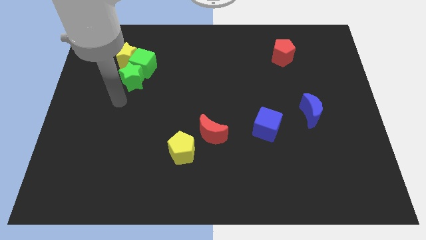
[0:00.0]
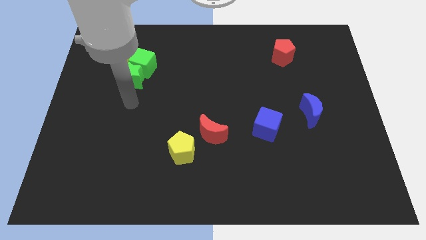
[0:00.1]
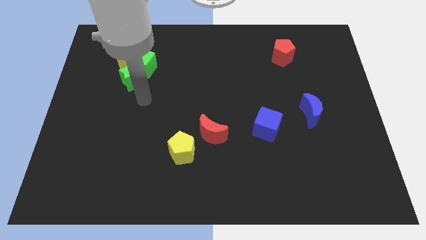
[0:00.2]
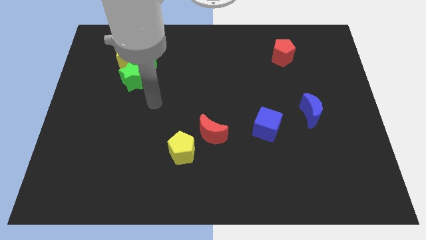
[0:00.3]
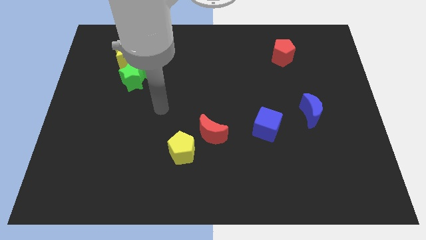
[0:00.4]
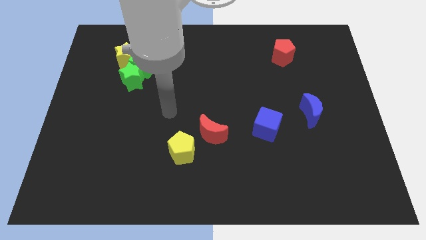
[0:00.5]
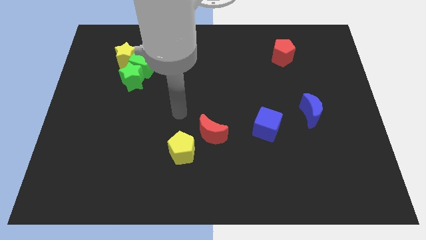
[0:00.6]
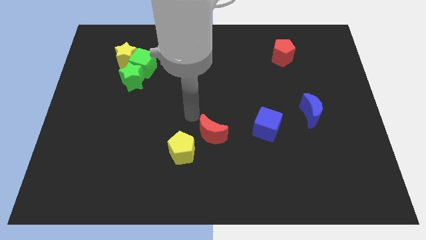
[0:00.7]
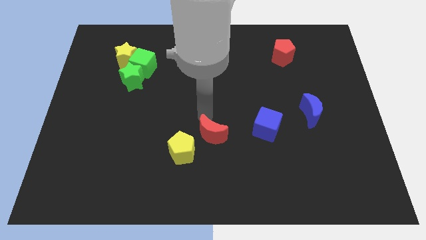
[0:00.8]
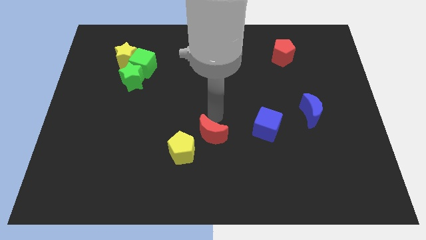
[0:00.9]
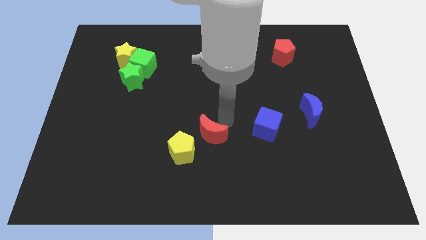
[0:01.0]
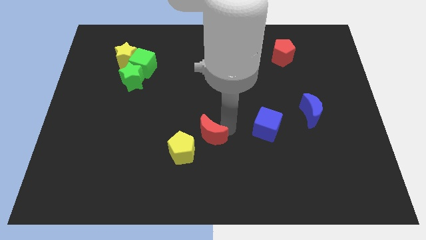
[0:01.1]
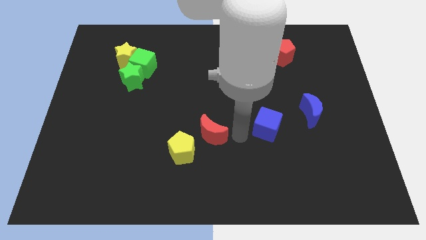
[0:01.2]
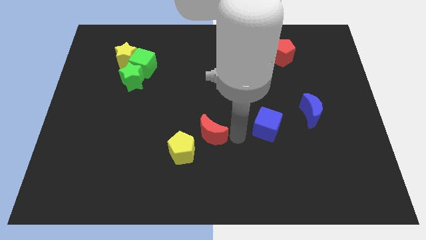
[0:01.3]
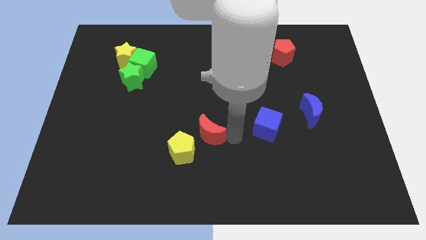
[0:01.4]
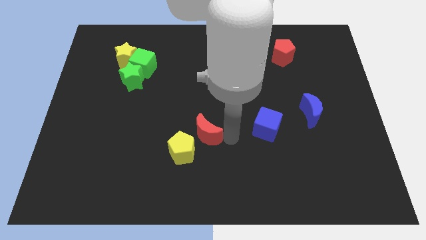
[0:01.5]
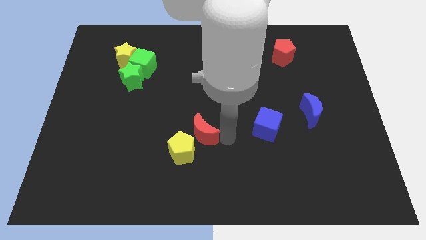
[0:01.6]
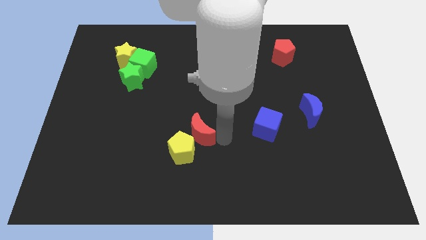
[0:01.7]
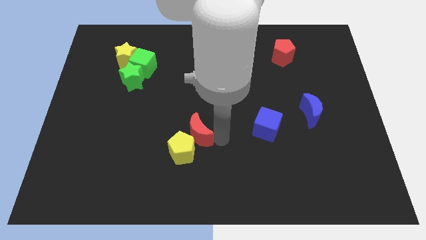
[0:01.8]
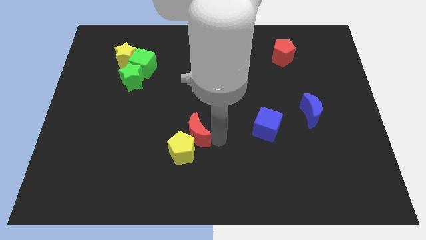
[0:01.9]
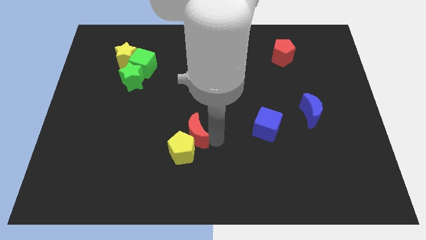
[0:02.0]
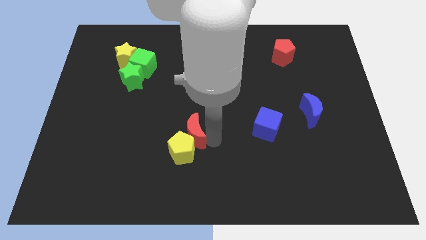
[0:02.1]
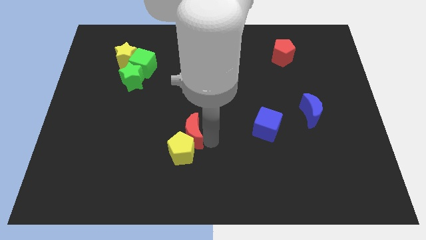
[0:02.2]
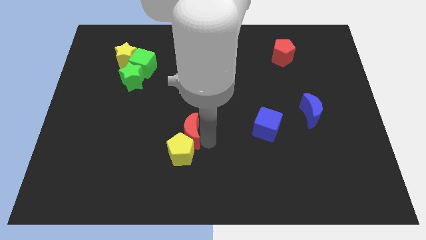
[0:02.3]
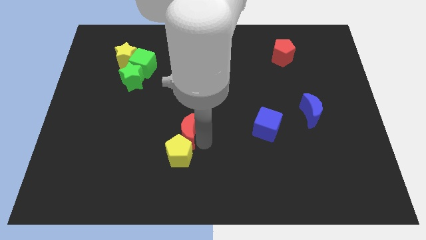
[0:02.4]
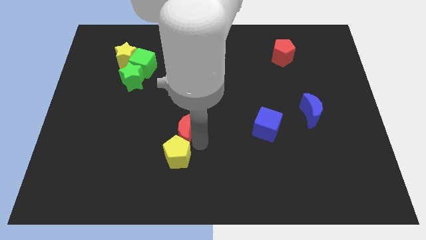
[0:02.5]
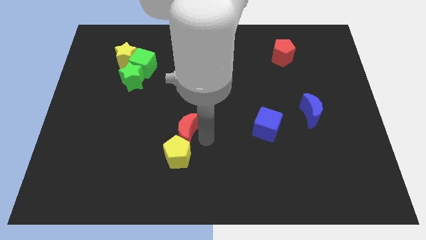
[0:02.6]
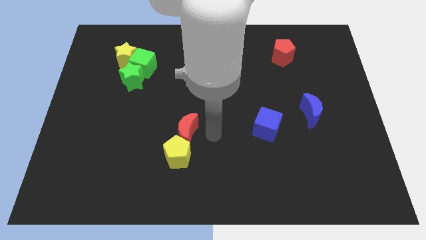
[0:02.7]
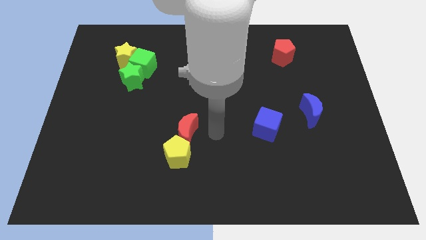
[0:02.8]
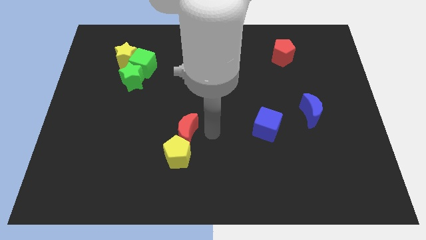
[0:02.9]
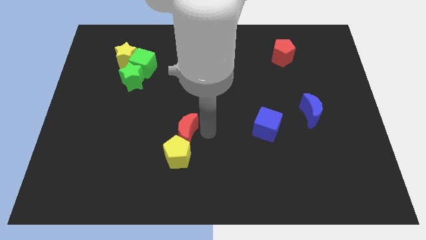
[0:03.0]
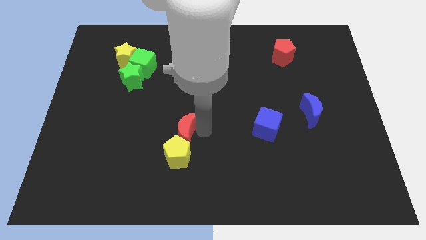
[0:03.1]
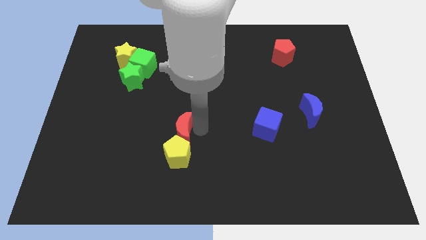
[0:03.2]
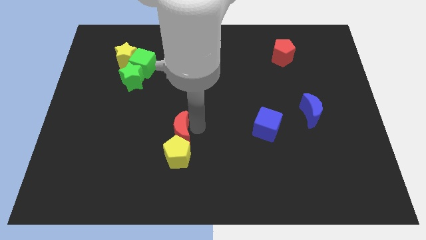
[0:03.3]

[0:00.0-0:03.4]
slightly move the red moon left

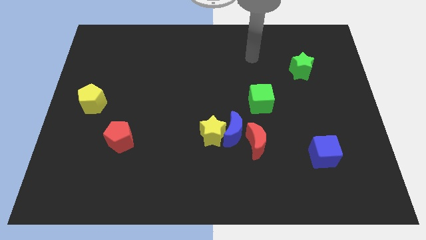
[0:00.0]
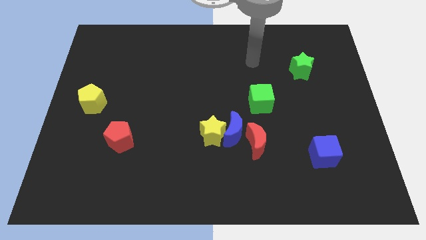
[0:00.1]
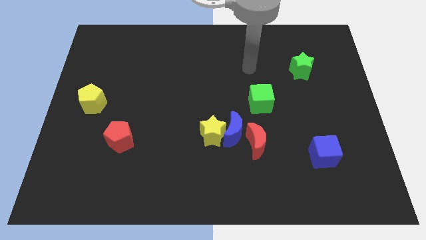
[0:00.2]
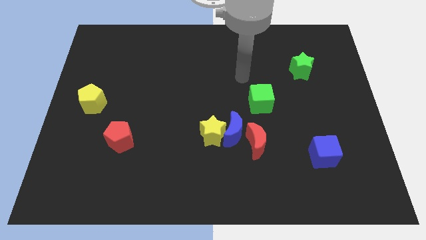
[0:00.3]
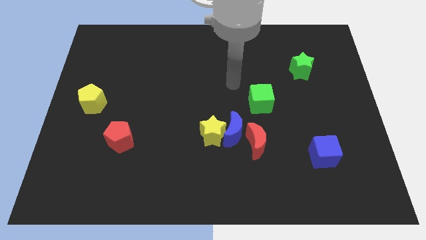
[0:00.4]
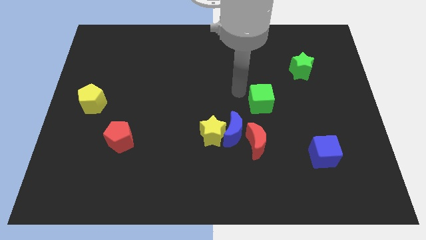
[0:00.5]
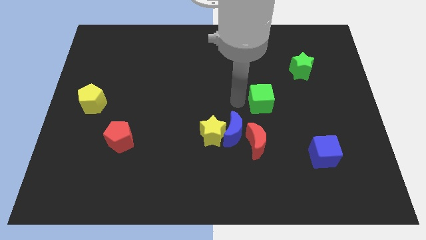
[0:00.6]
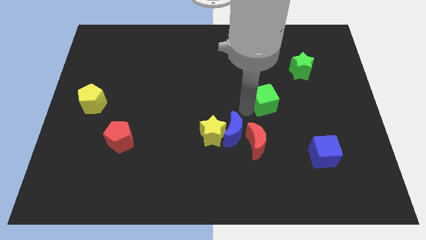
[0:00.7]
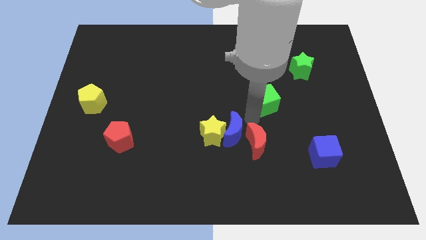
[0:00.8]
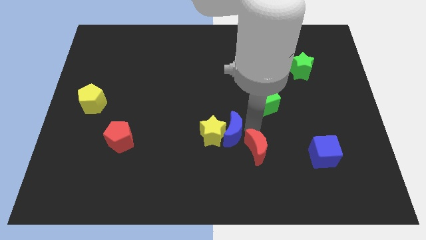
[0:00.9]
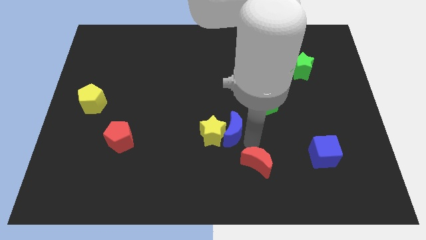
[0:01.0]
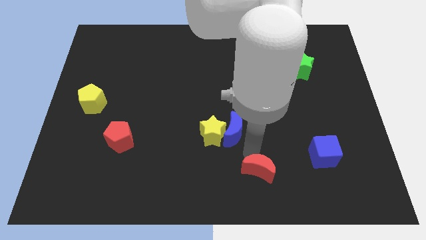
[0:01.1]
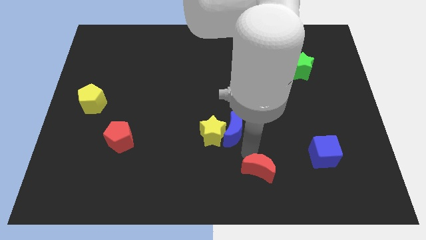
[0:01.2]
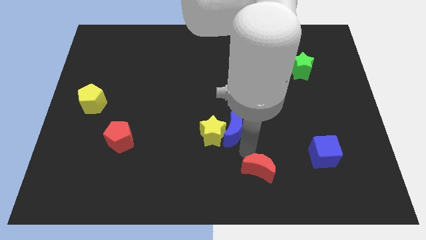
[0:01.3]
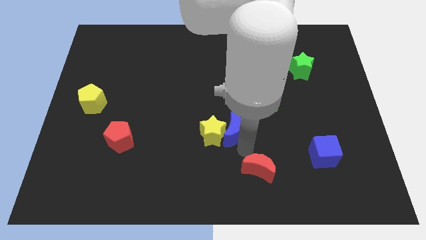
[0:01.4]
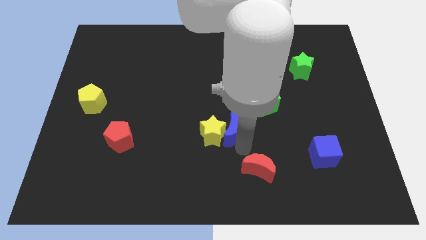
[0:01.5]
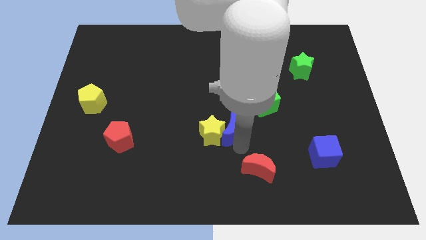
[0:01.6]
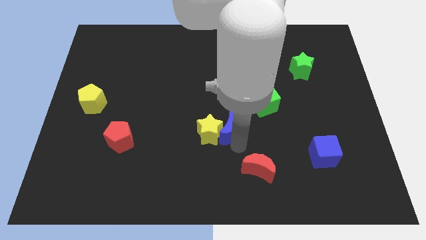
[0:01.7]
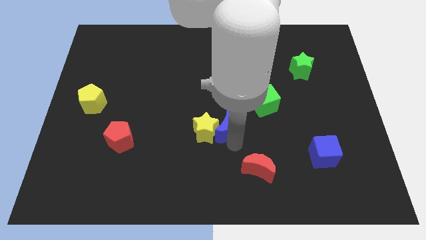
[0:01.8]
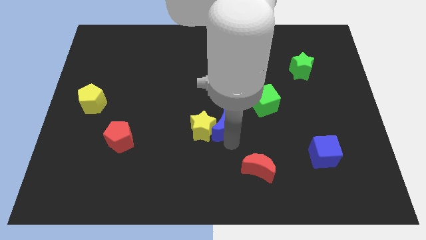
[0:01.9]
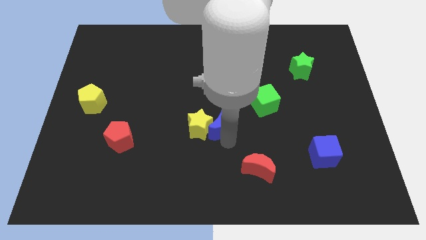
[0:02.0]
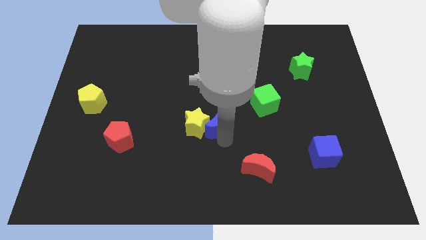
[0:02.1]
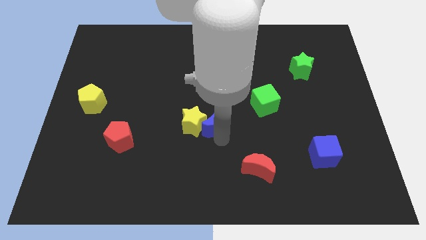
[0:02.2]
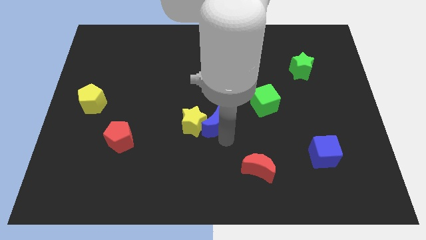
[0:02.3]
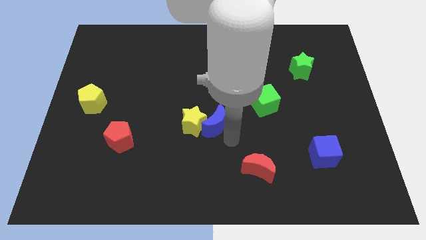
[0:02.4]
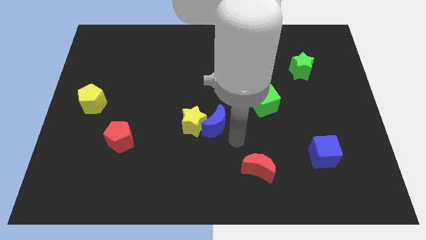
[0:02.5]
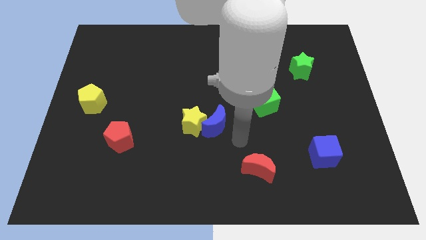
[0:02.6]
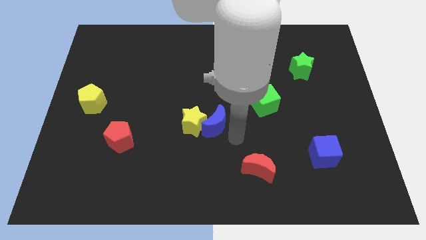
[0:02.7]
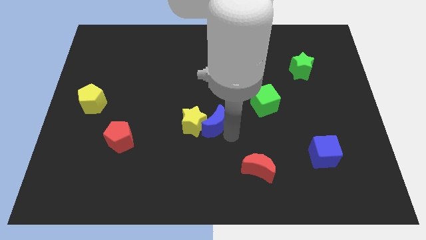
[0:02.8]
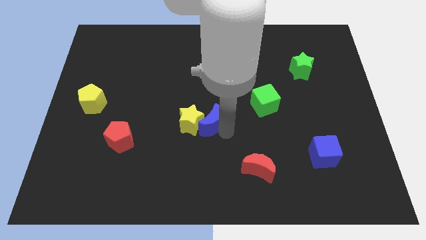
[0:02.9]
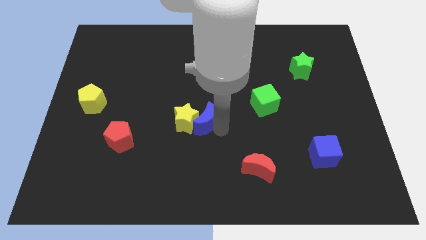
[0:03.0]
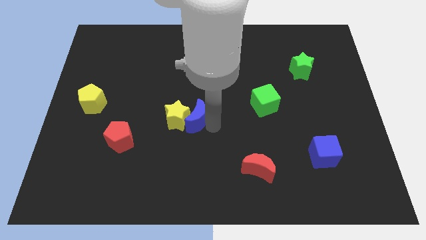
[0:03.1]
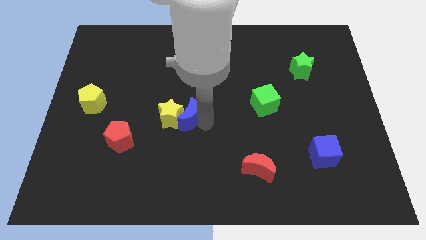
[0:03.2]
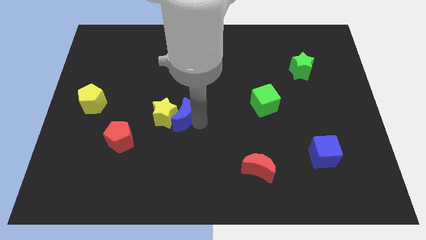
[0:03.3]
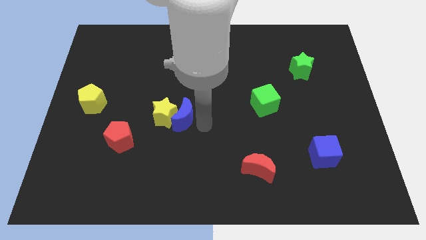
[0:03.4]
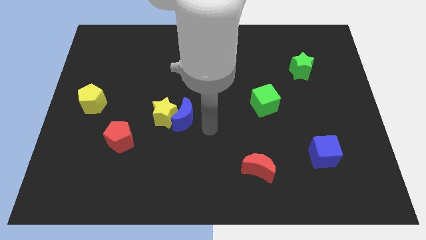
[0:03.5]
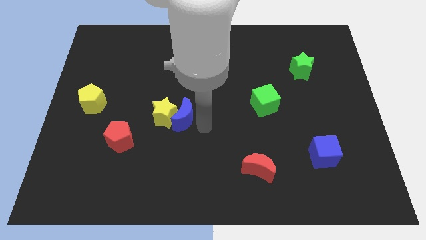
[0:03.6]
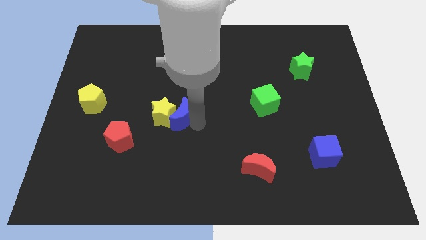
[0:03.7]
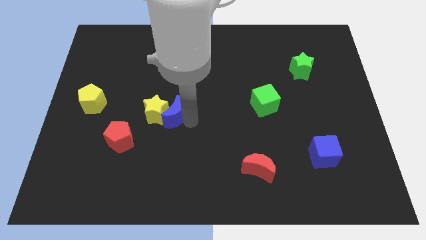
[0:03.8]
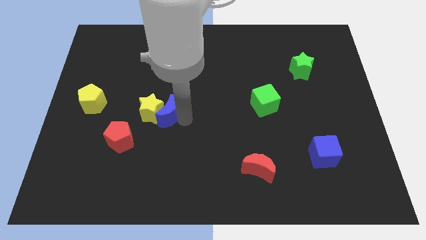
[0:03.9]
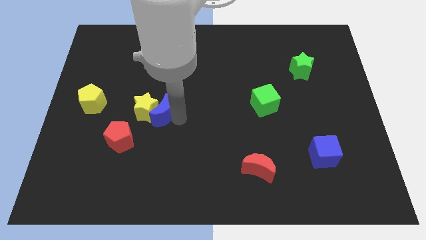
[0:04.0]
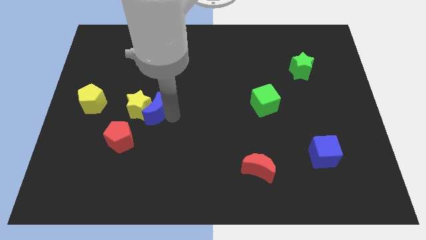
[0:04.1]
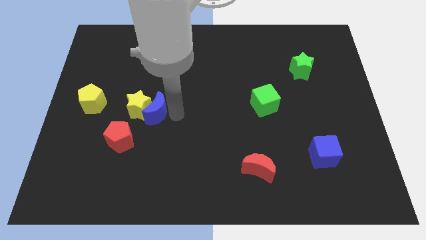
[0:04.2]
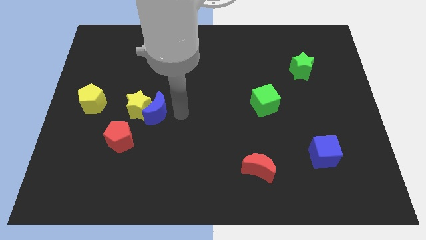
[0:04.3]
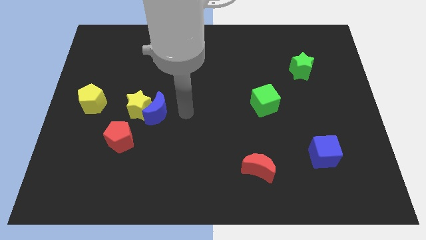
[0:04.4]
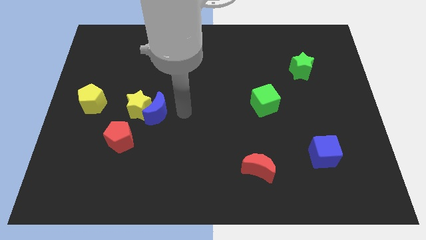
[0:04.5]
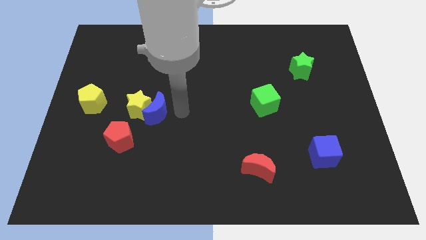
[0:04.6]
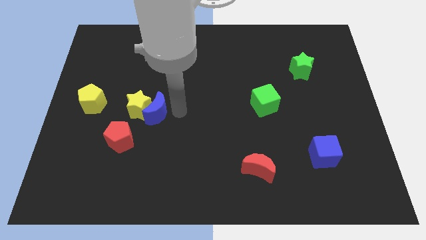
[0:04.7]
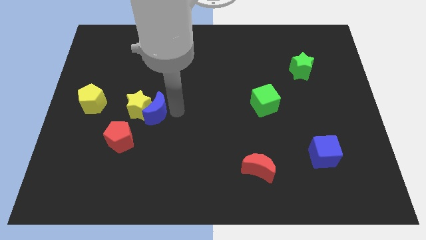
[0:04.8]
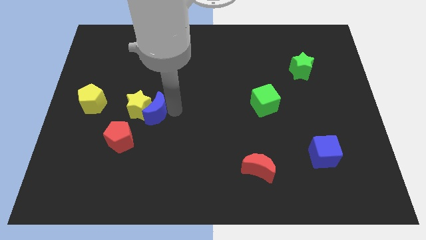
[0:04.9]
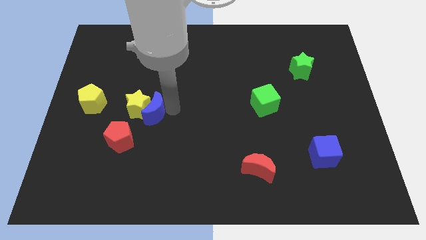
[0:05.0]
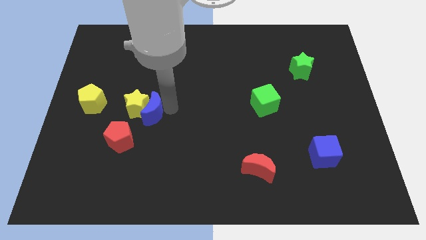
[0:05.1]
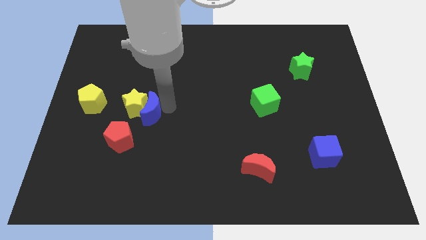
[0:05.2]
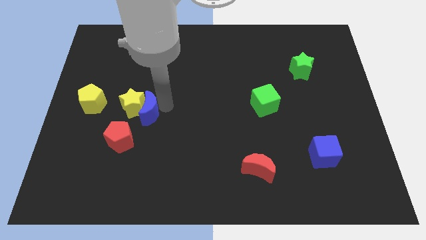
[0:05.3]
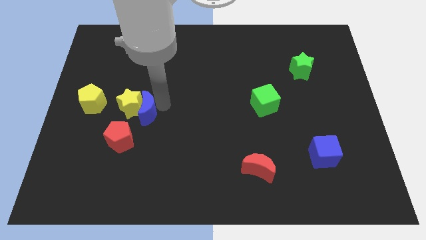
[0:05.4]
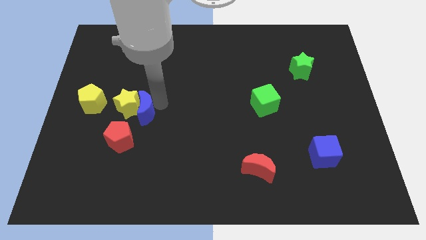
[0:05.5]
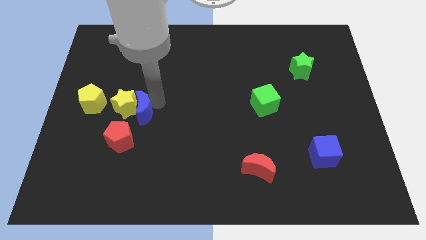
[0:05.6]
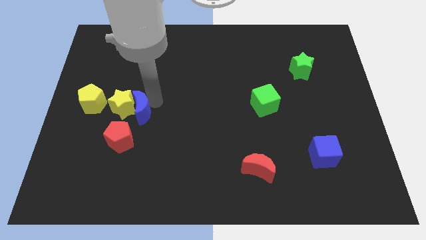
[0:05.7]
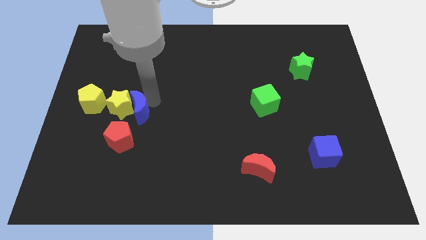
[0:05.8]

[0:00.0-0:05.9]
move the blue moon to the left
